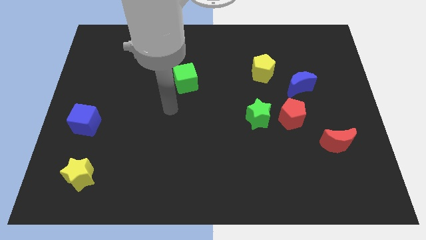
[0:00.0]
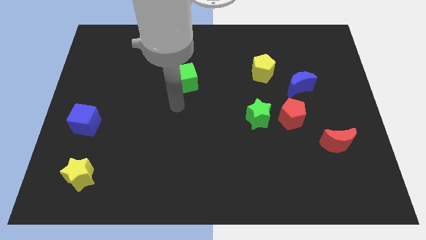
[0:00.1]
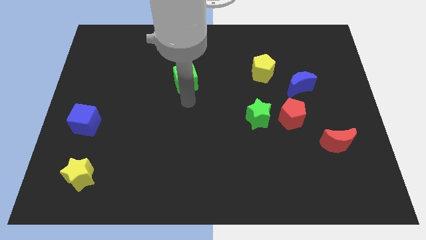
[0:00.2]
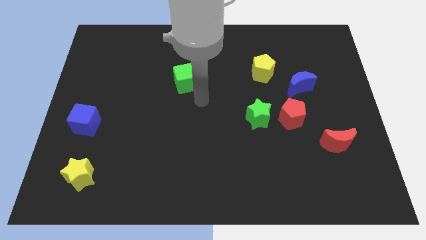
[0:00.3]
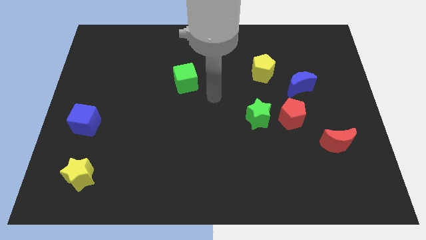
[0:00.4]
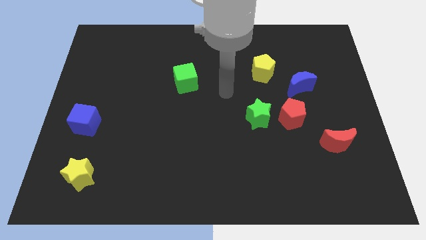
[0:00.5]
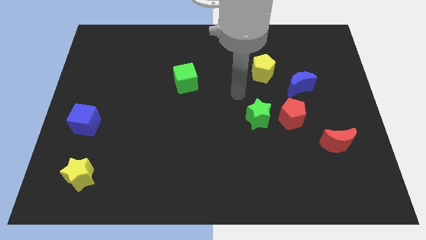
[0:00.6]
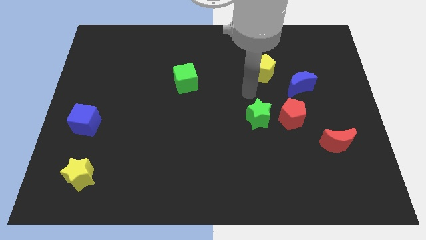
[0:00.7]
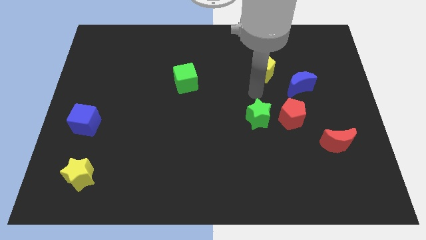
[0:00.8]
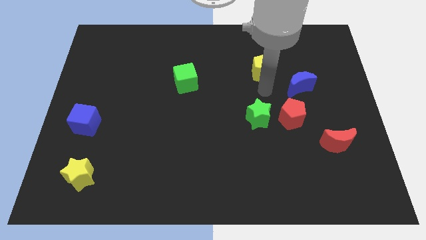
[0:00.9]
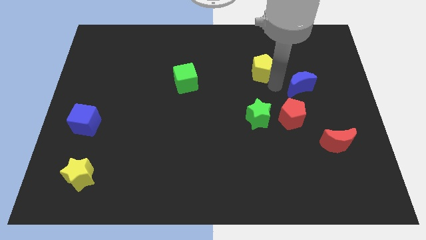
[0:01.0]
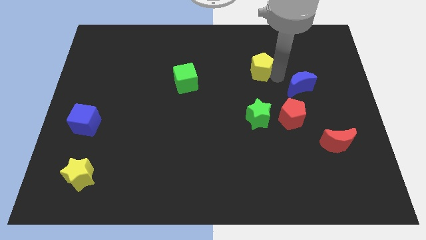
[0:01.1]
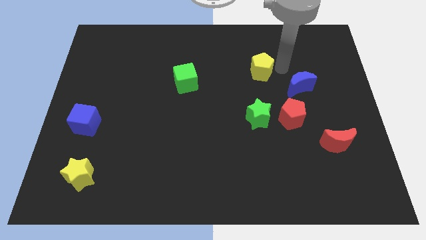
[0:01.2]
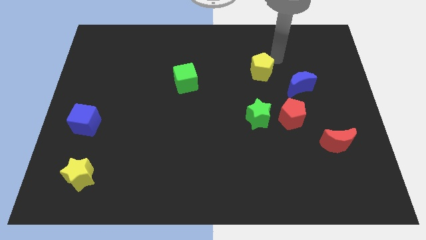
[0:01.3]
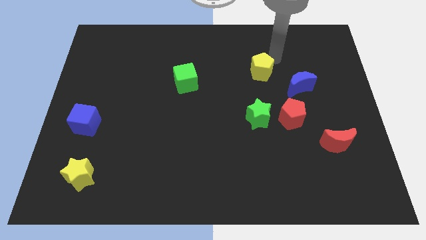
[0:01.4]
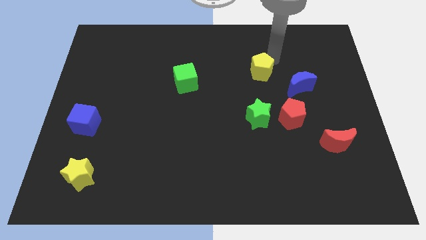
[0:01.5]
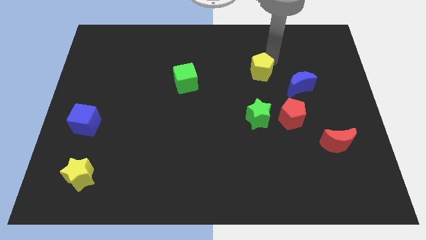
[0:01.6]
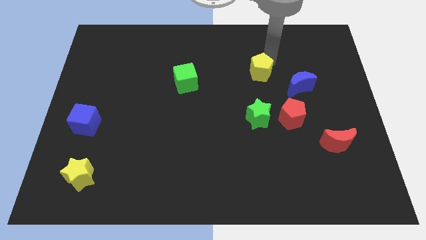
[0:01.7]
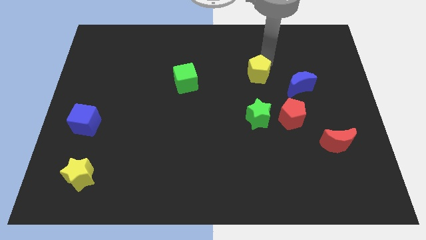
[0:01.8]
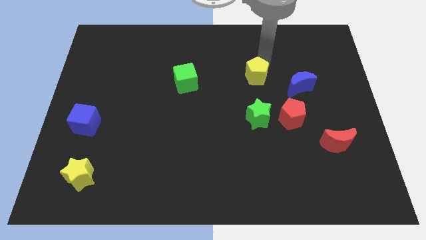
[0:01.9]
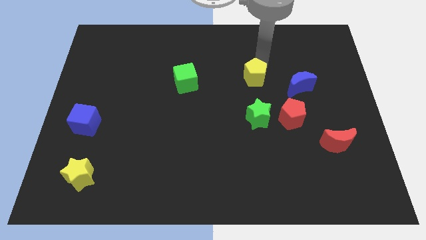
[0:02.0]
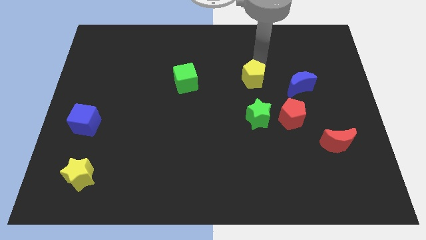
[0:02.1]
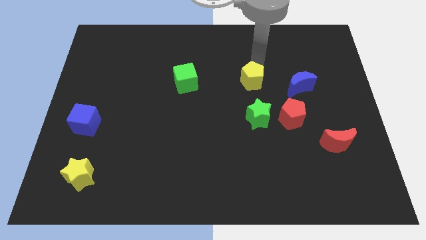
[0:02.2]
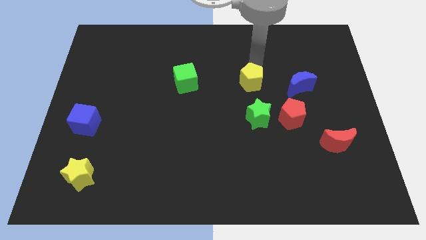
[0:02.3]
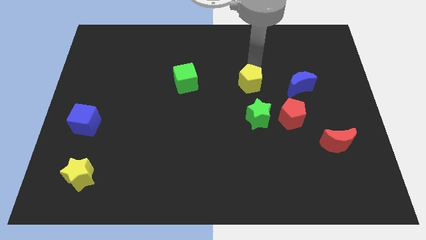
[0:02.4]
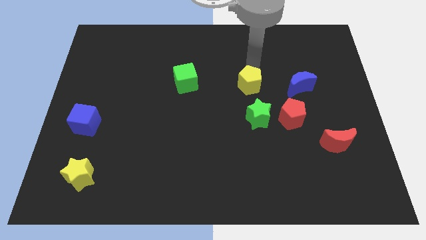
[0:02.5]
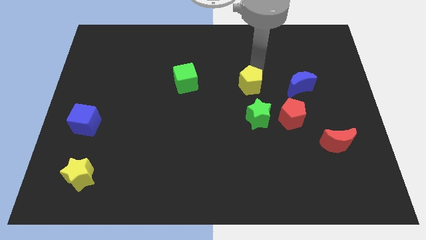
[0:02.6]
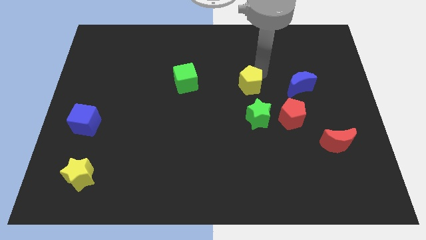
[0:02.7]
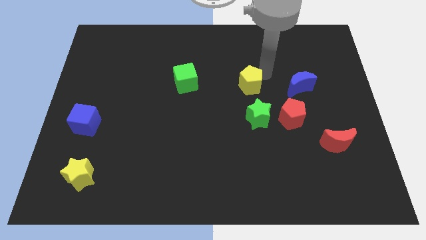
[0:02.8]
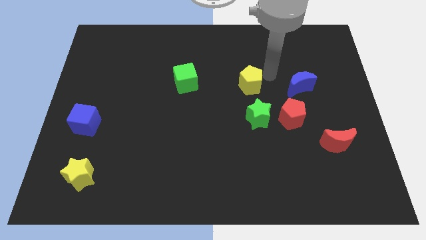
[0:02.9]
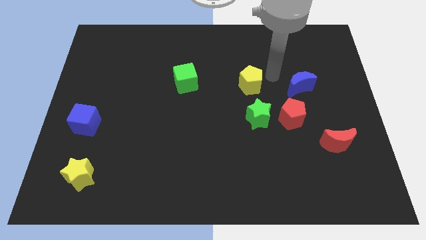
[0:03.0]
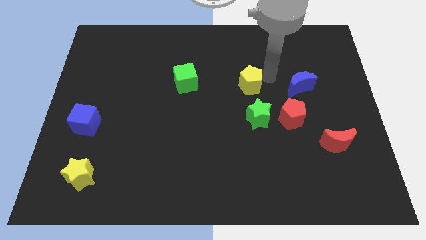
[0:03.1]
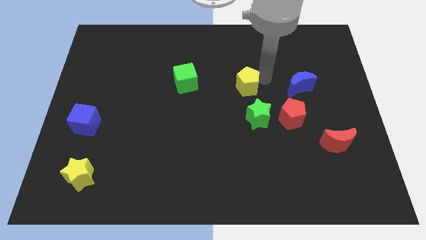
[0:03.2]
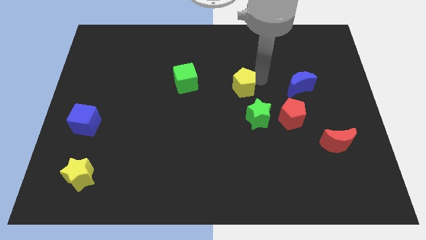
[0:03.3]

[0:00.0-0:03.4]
move the yellow pentagon down and then left somewhat

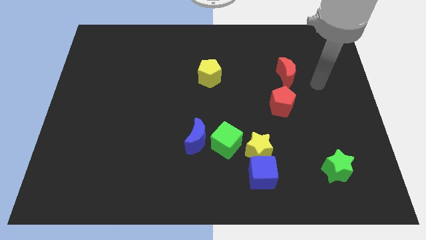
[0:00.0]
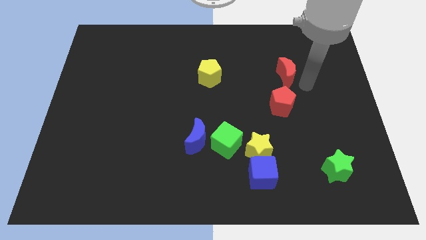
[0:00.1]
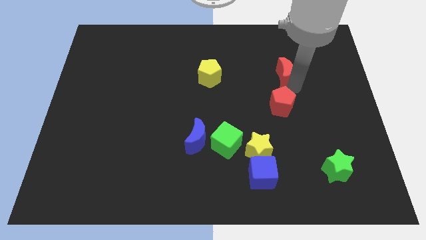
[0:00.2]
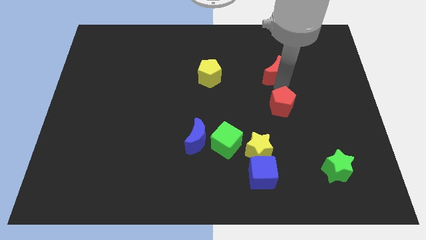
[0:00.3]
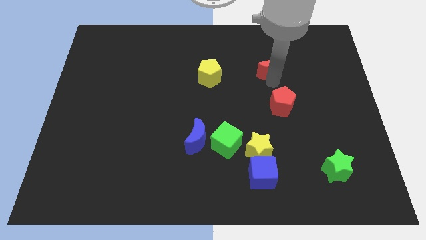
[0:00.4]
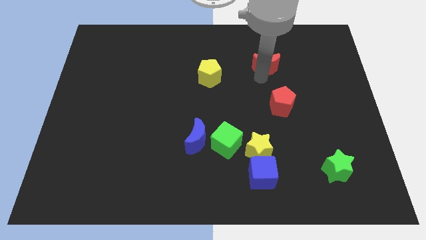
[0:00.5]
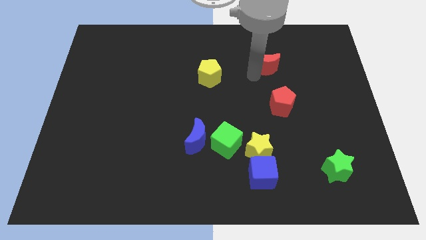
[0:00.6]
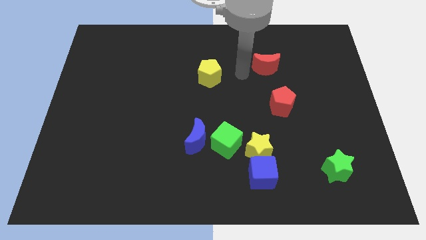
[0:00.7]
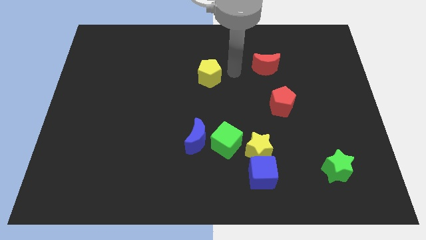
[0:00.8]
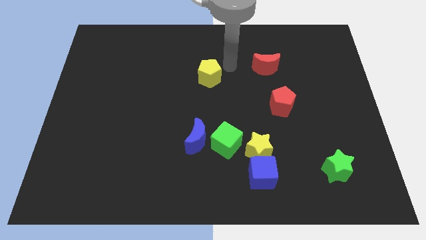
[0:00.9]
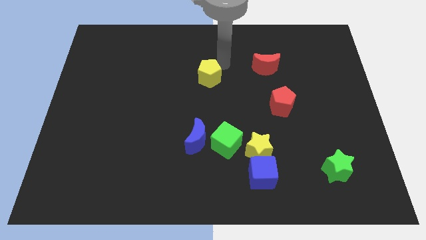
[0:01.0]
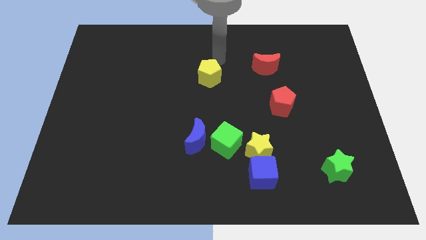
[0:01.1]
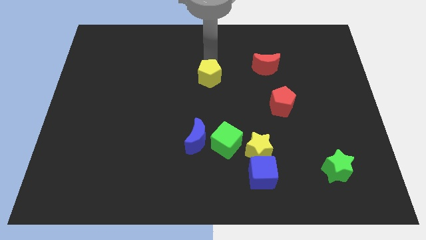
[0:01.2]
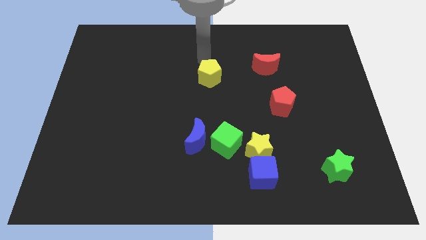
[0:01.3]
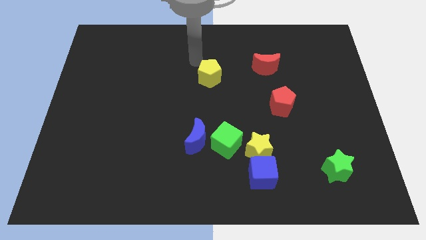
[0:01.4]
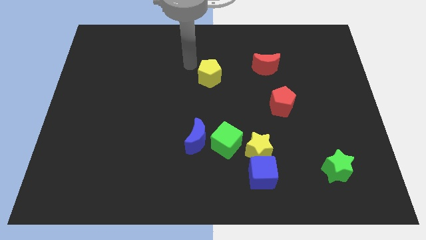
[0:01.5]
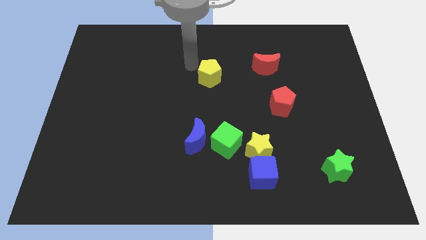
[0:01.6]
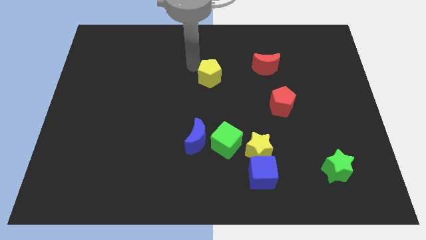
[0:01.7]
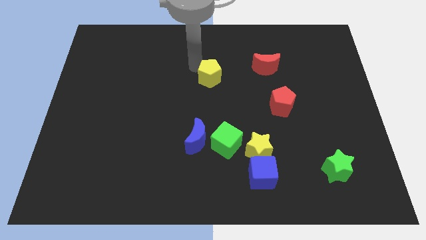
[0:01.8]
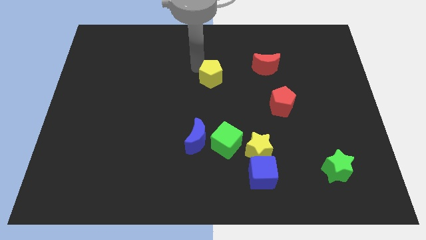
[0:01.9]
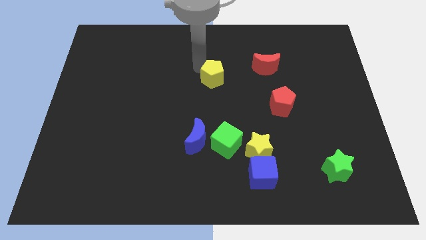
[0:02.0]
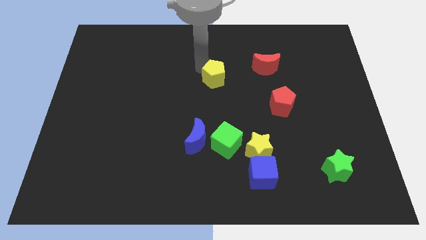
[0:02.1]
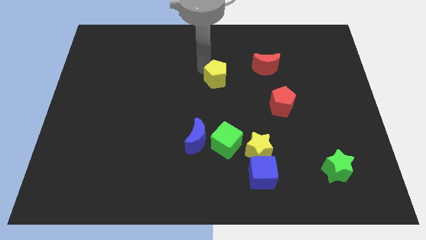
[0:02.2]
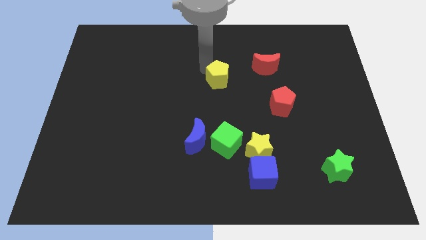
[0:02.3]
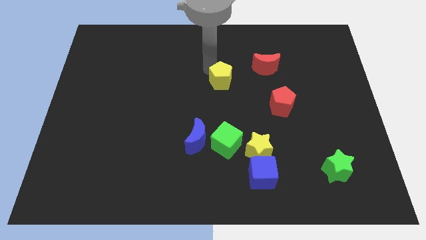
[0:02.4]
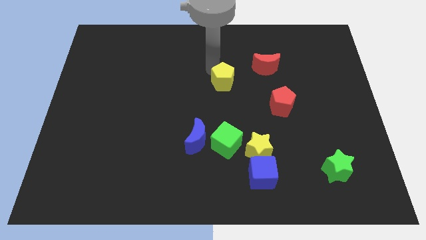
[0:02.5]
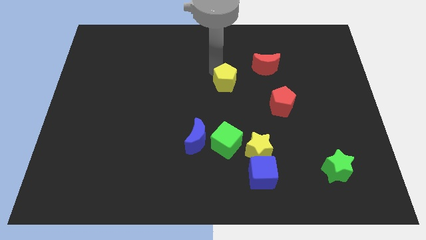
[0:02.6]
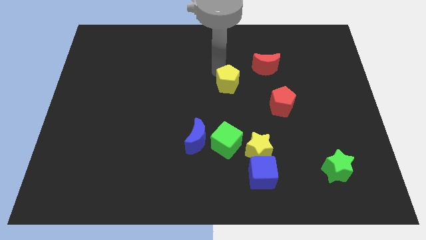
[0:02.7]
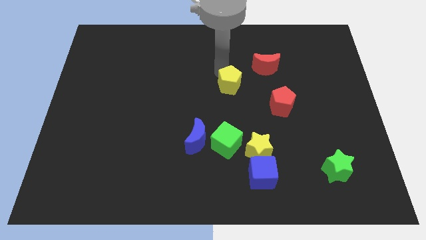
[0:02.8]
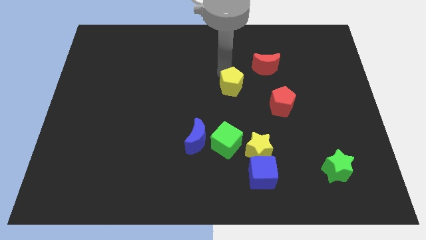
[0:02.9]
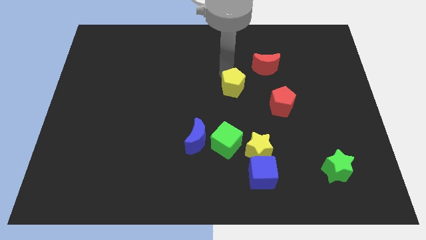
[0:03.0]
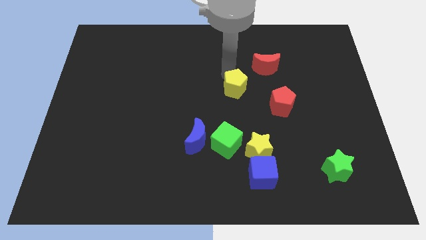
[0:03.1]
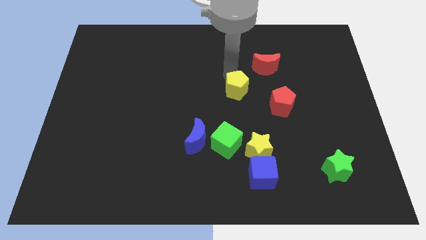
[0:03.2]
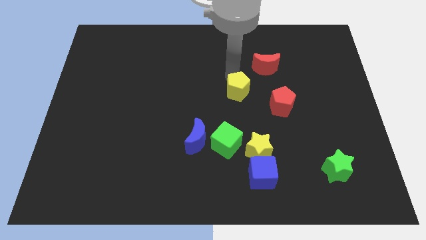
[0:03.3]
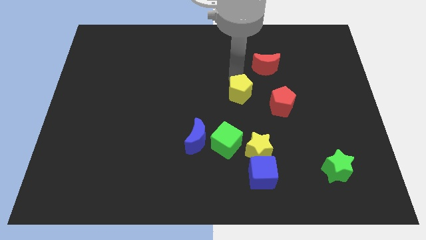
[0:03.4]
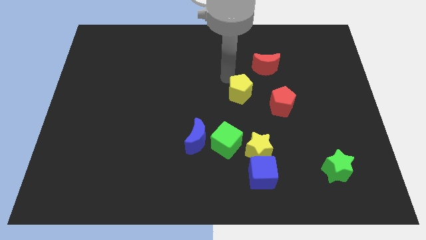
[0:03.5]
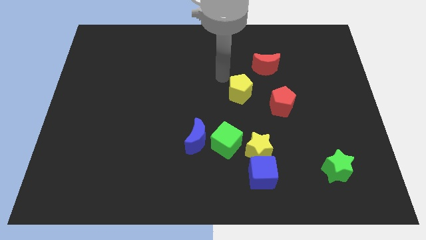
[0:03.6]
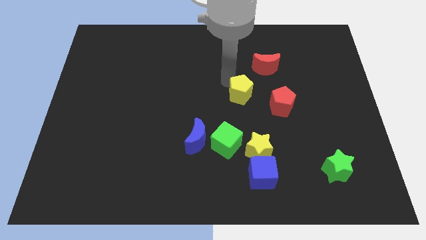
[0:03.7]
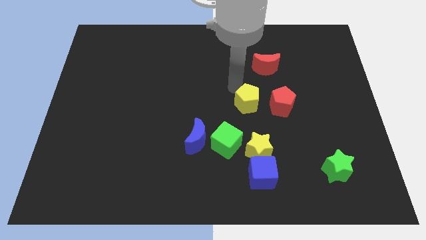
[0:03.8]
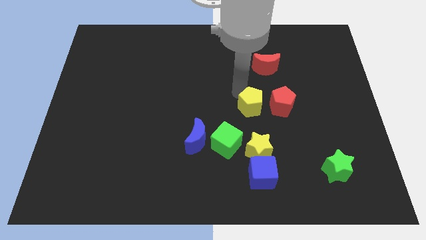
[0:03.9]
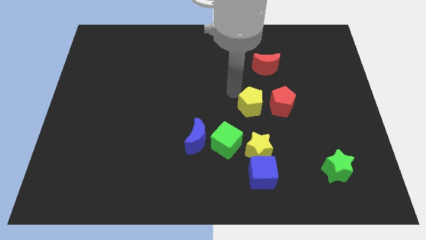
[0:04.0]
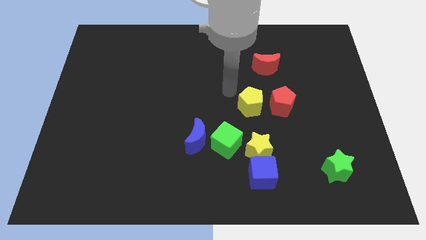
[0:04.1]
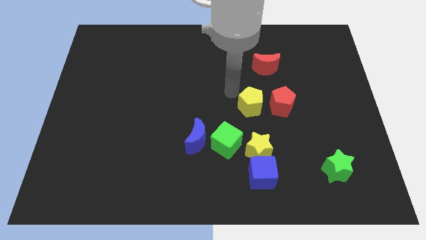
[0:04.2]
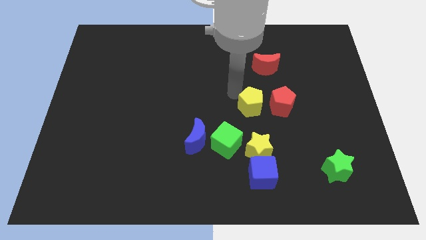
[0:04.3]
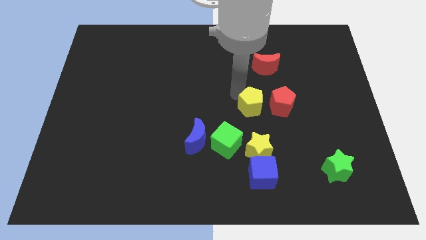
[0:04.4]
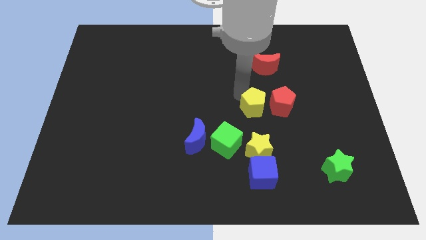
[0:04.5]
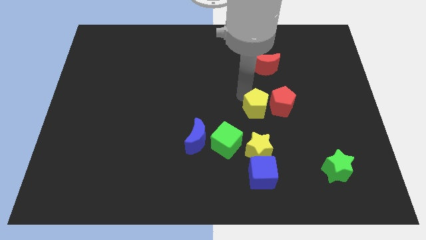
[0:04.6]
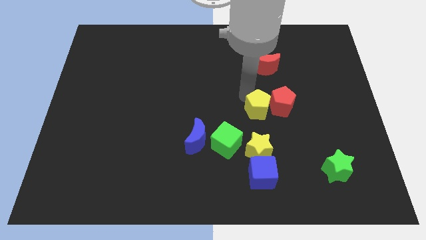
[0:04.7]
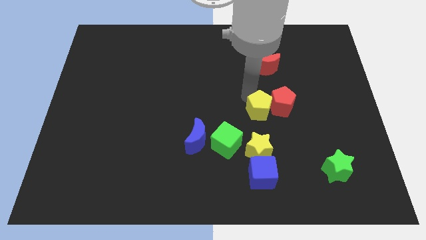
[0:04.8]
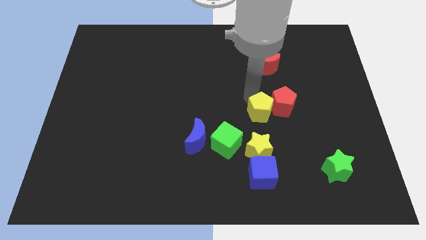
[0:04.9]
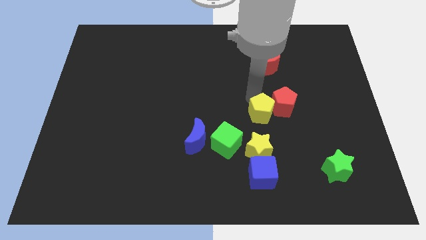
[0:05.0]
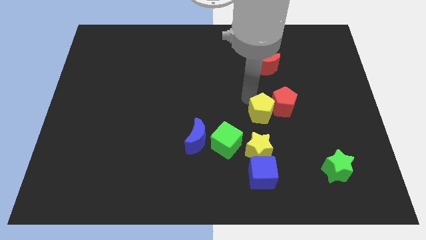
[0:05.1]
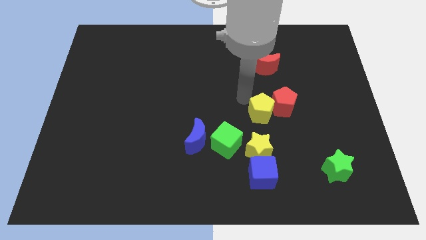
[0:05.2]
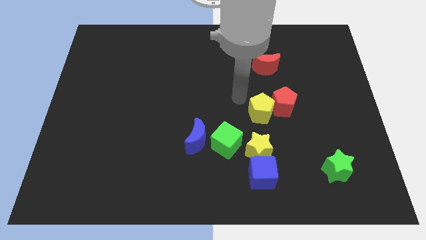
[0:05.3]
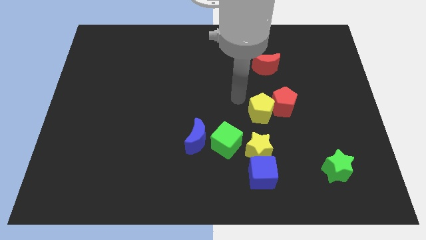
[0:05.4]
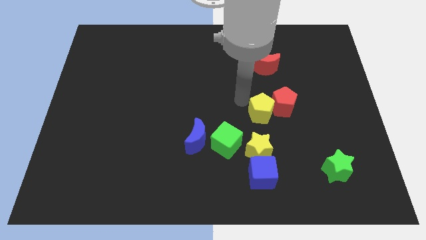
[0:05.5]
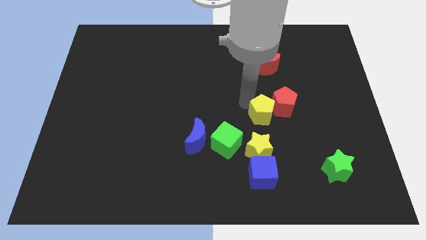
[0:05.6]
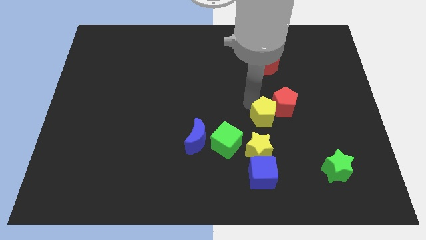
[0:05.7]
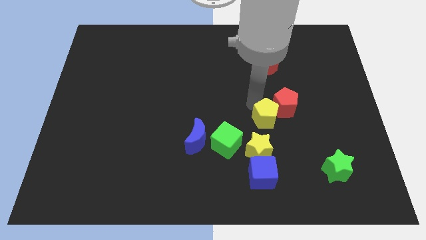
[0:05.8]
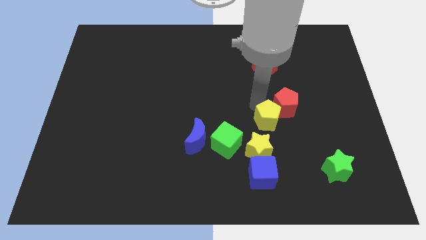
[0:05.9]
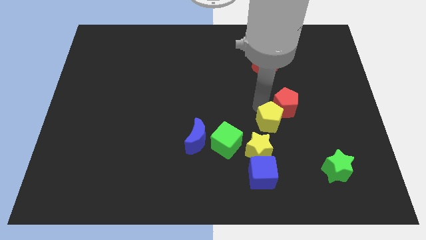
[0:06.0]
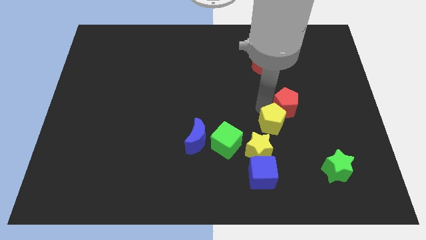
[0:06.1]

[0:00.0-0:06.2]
push the yellow pentagon down and to the right diagonally
